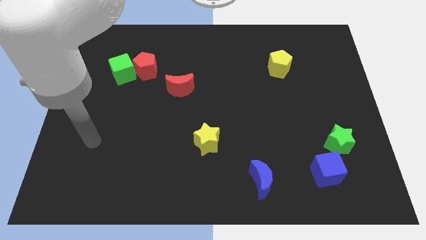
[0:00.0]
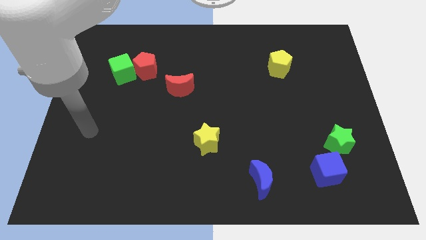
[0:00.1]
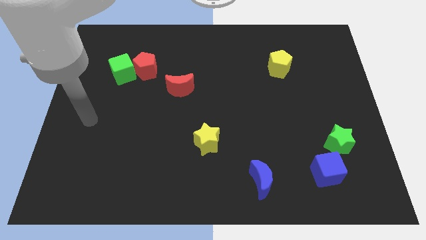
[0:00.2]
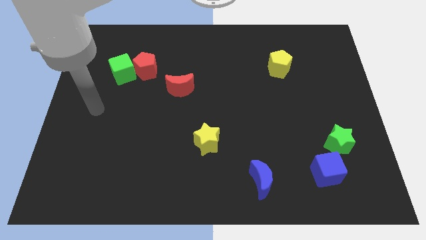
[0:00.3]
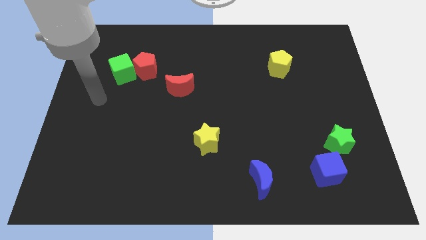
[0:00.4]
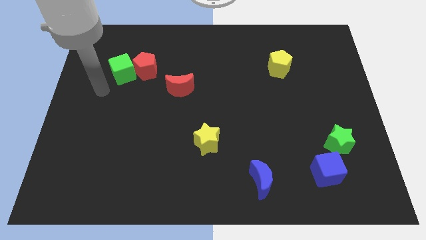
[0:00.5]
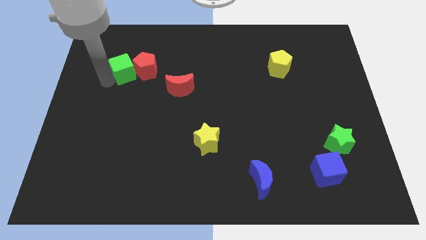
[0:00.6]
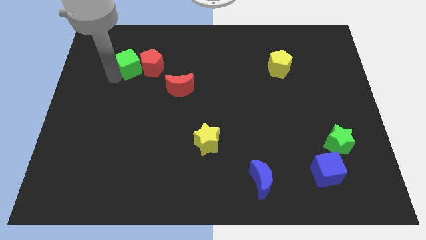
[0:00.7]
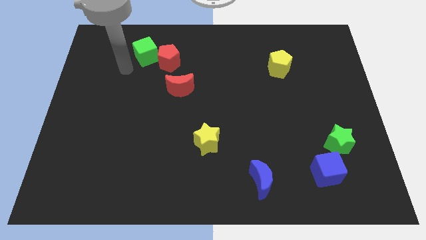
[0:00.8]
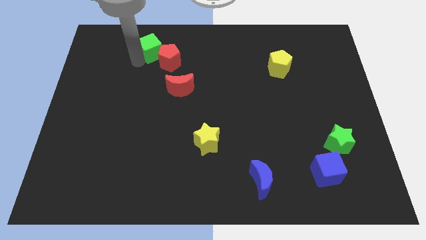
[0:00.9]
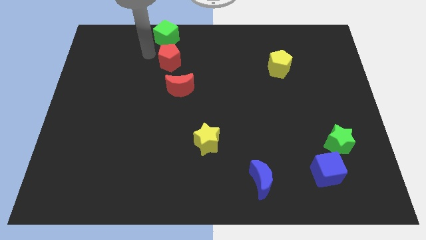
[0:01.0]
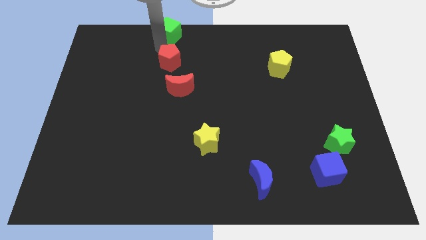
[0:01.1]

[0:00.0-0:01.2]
pull the red pentagon apart from the green cube

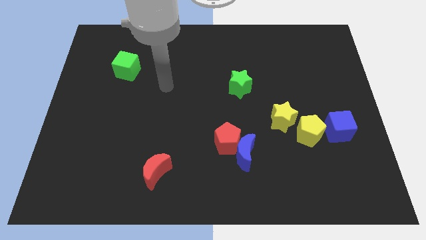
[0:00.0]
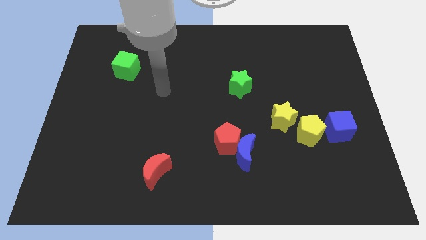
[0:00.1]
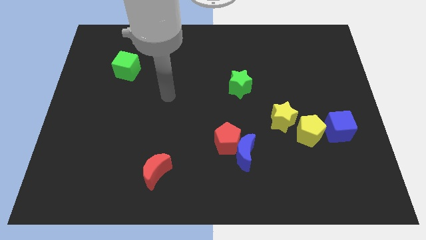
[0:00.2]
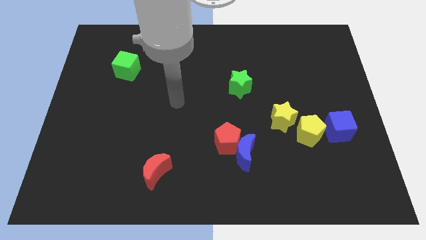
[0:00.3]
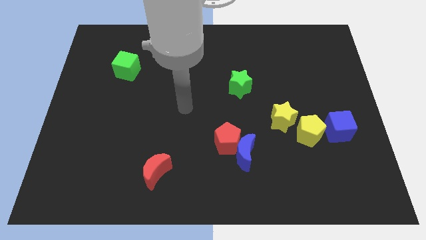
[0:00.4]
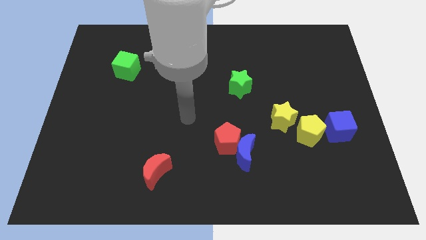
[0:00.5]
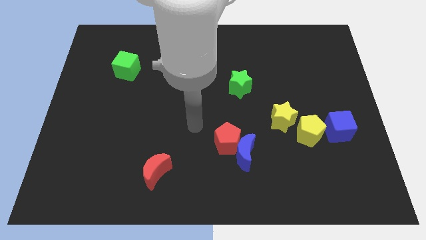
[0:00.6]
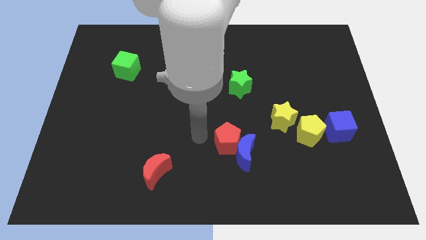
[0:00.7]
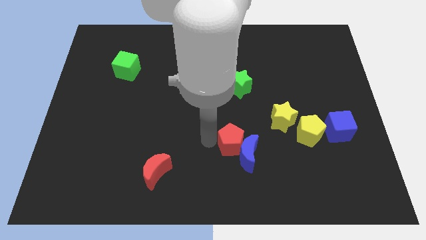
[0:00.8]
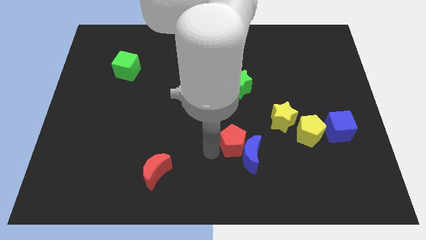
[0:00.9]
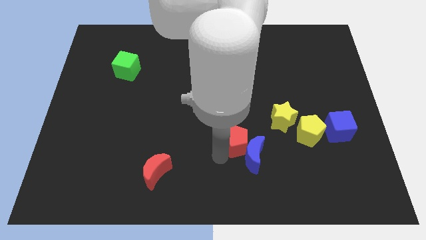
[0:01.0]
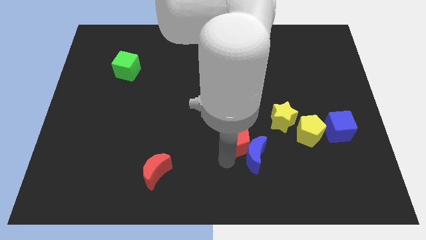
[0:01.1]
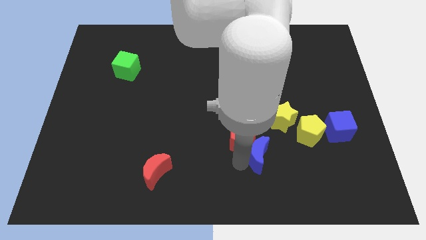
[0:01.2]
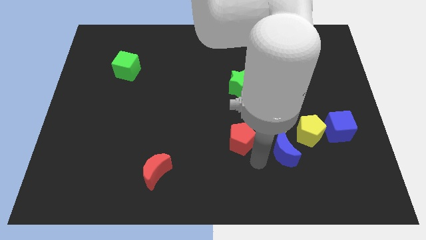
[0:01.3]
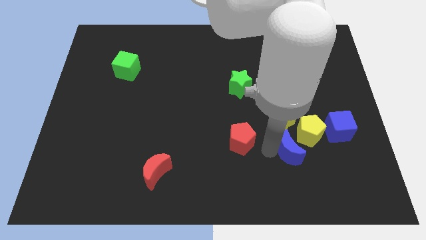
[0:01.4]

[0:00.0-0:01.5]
pull the red pentagon apart from the blue moon

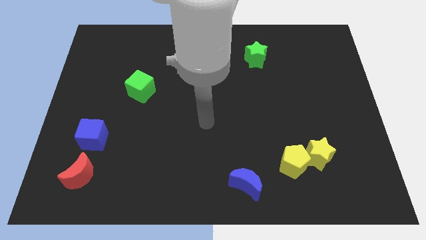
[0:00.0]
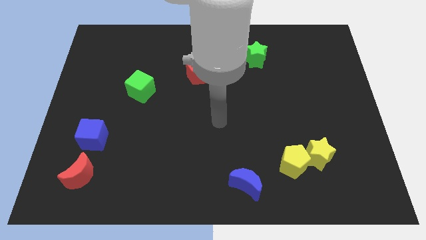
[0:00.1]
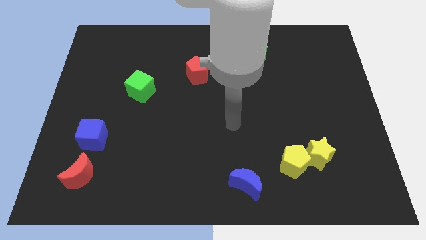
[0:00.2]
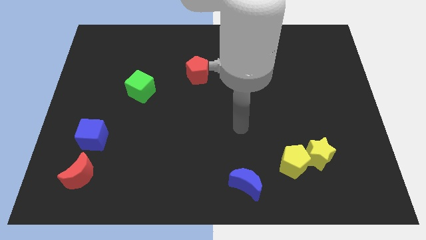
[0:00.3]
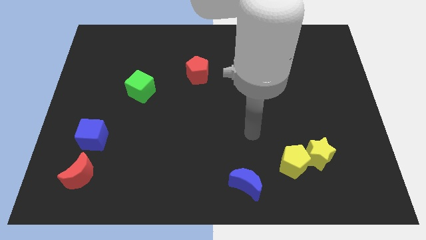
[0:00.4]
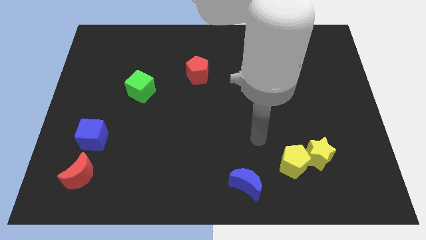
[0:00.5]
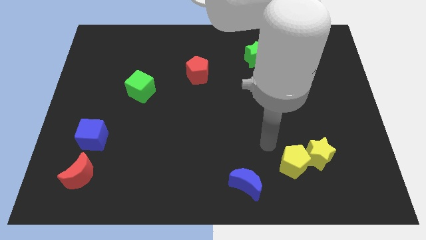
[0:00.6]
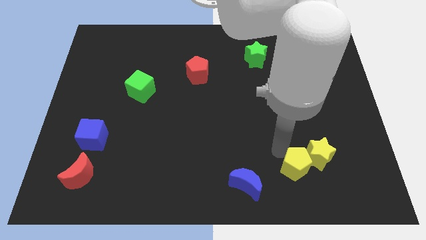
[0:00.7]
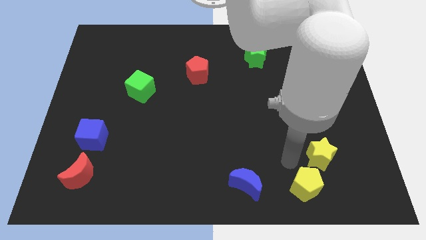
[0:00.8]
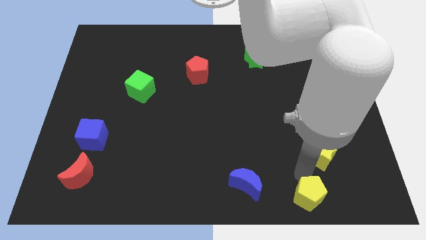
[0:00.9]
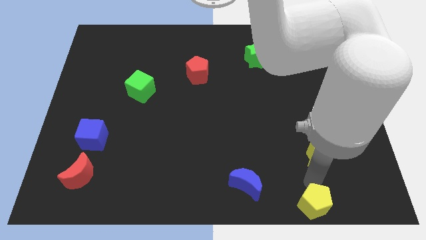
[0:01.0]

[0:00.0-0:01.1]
separate the yellow star from the yellow pentagon

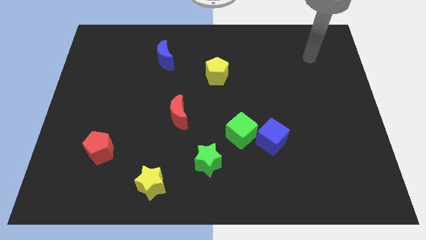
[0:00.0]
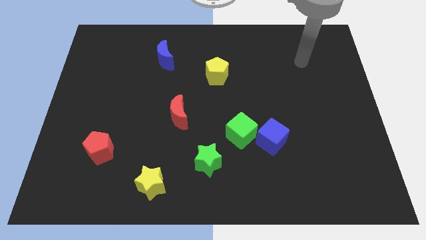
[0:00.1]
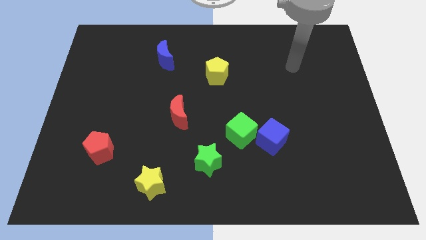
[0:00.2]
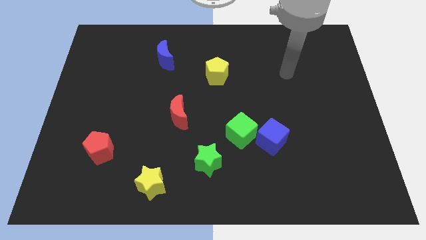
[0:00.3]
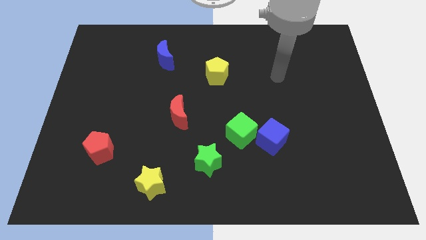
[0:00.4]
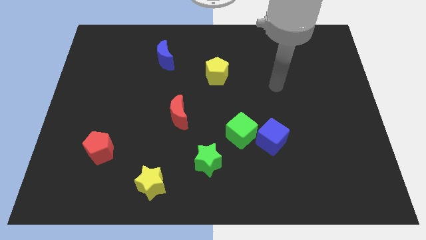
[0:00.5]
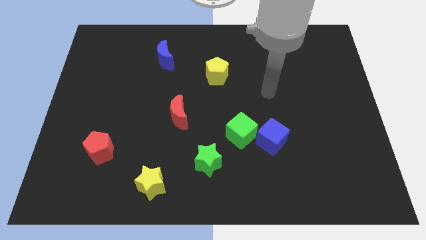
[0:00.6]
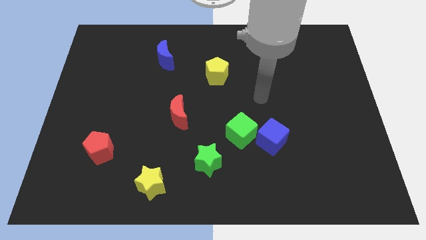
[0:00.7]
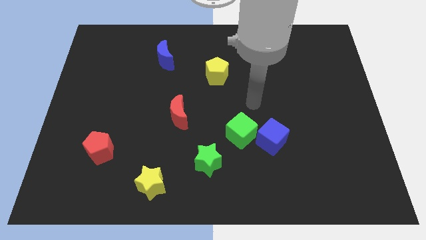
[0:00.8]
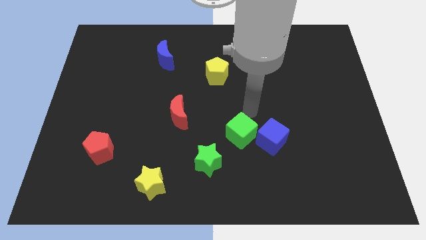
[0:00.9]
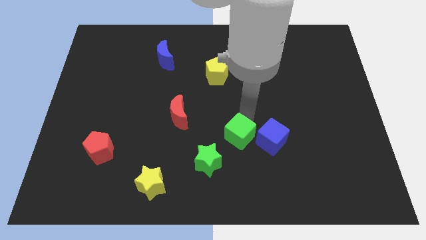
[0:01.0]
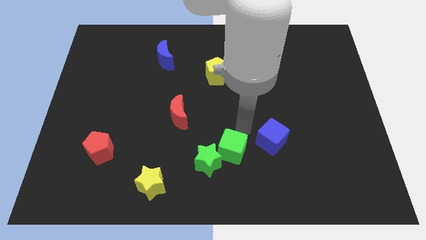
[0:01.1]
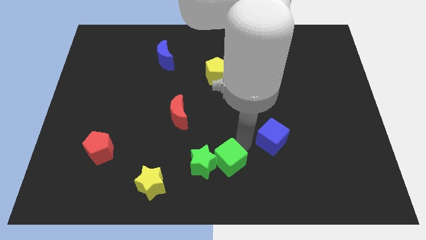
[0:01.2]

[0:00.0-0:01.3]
move the blue cube away from the green cube

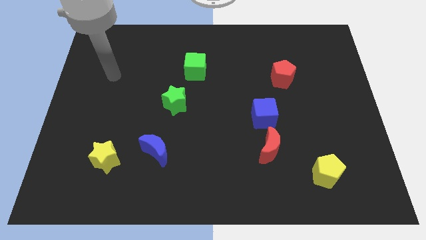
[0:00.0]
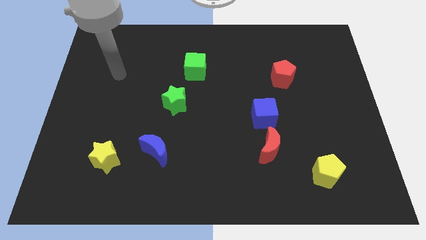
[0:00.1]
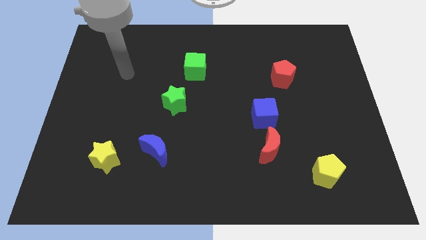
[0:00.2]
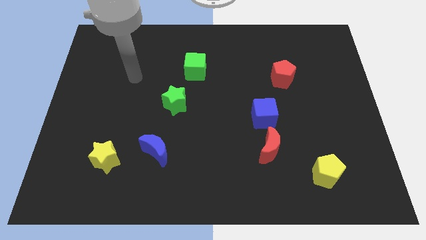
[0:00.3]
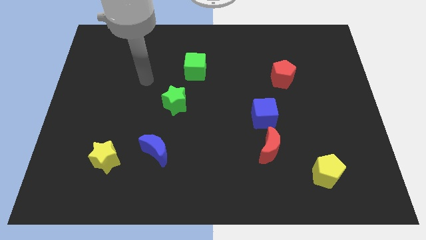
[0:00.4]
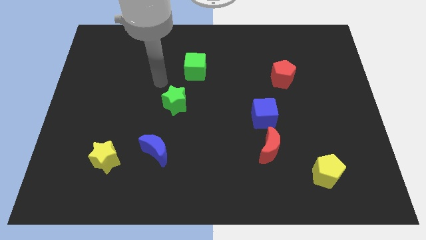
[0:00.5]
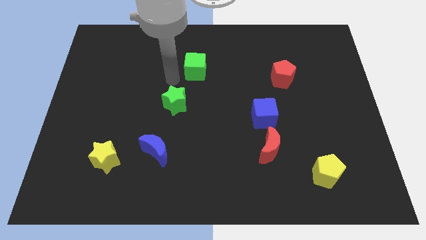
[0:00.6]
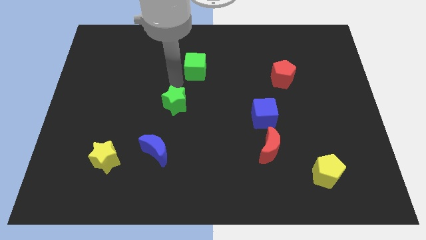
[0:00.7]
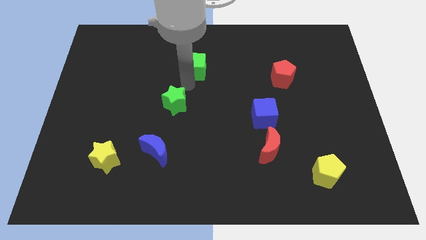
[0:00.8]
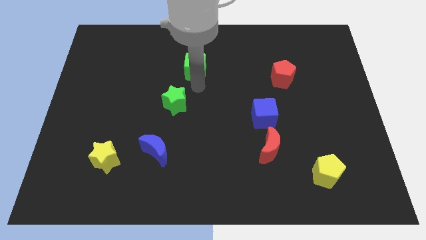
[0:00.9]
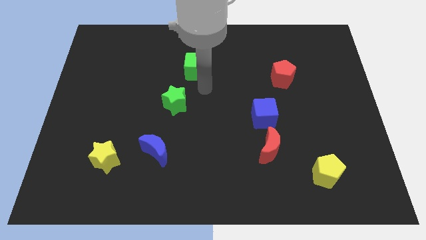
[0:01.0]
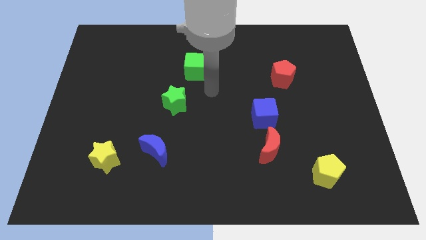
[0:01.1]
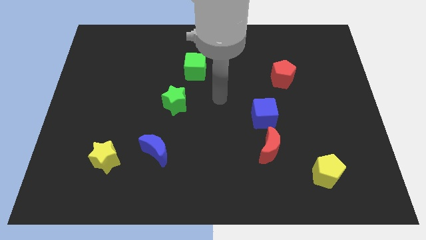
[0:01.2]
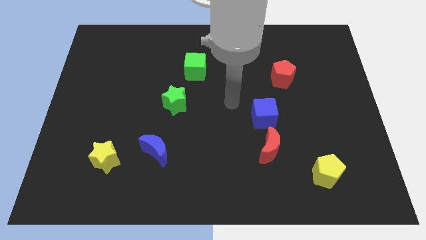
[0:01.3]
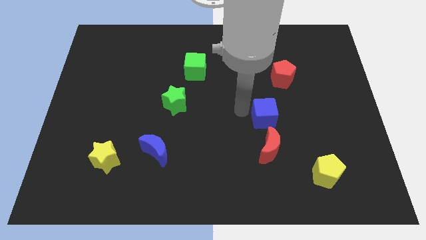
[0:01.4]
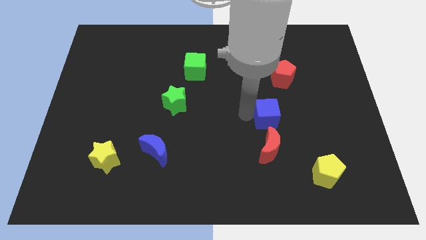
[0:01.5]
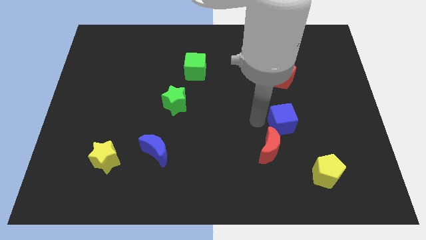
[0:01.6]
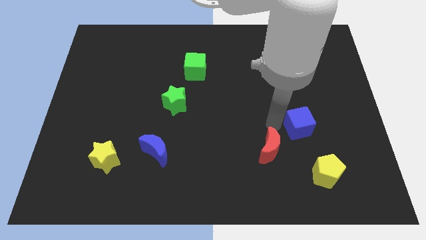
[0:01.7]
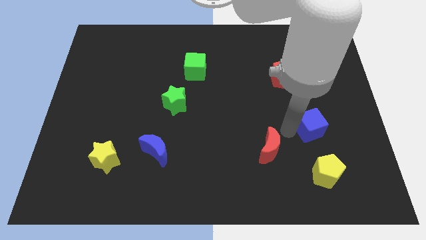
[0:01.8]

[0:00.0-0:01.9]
pull the red moon apart from the blue cube

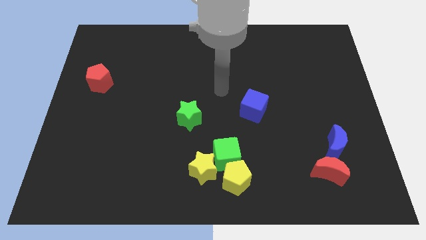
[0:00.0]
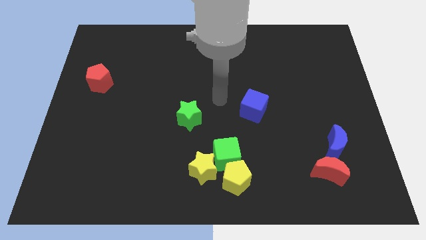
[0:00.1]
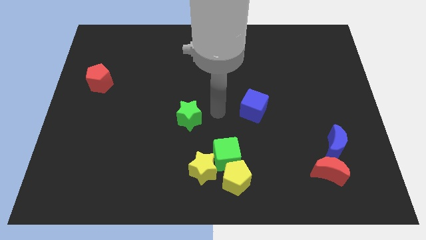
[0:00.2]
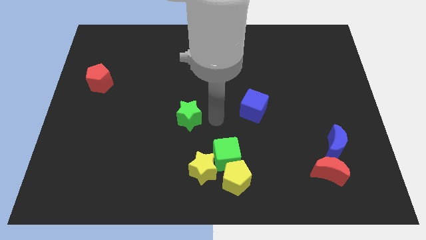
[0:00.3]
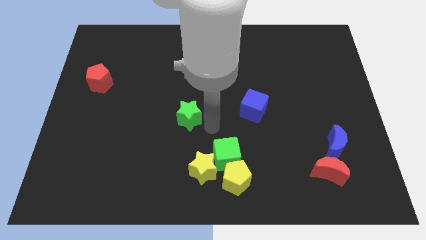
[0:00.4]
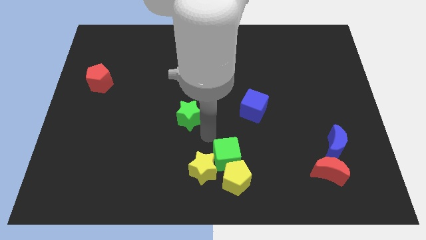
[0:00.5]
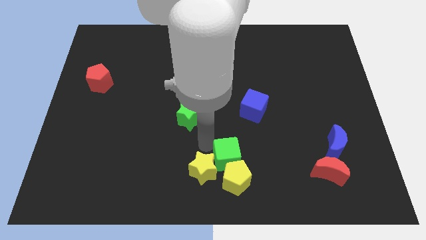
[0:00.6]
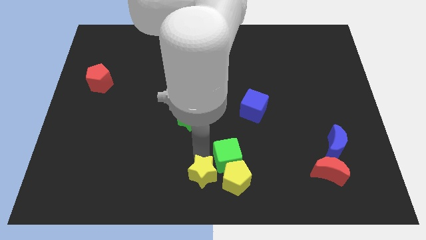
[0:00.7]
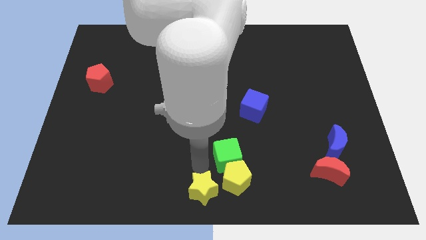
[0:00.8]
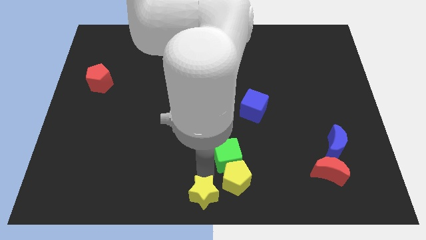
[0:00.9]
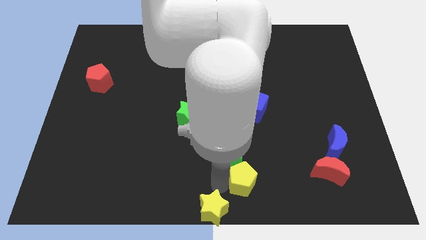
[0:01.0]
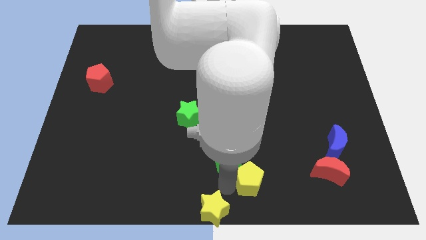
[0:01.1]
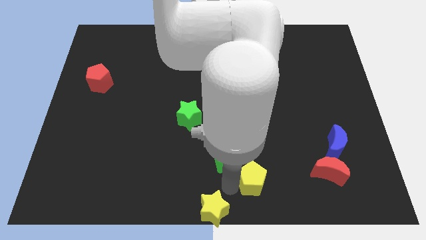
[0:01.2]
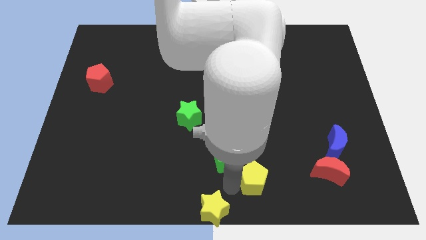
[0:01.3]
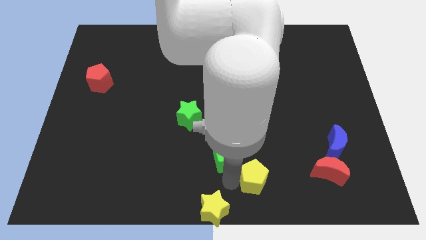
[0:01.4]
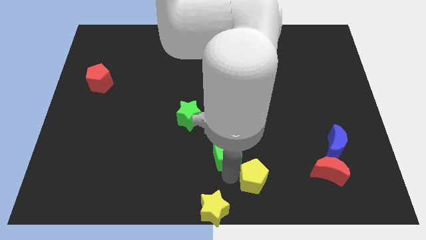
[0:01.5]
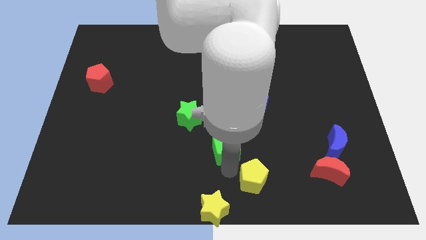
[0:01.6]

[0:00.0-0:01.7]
move the green cube away from the yellow pentagon and yellow star

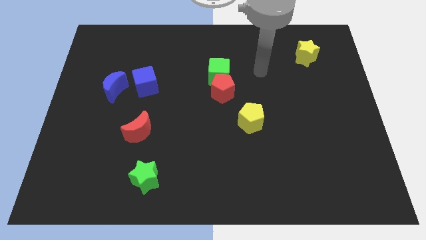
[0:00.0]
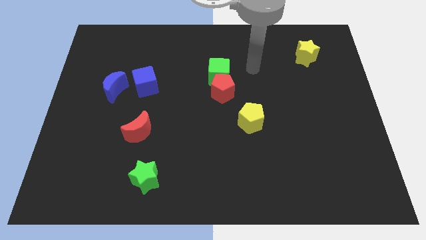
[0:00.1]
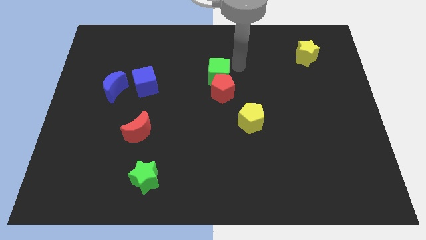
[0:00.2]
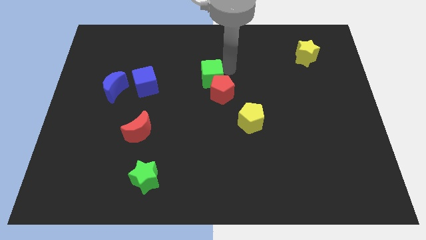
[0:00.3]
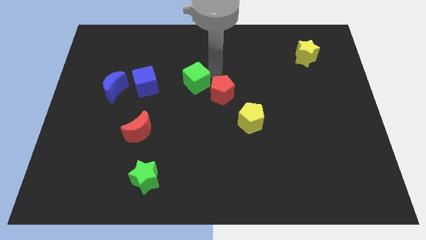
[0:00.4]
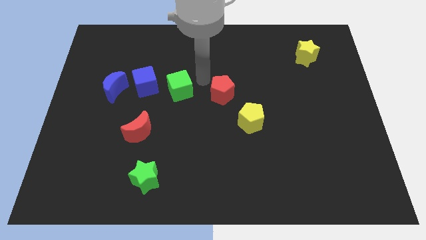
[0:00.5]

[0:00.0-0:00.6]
separate the red pentagon from the green cube
